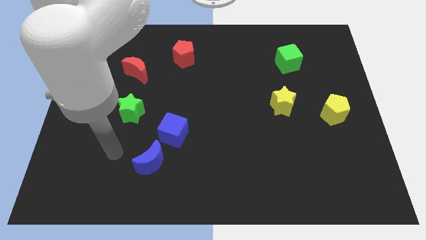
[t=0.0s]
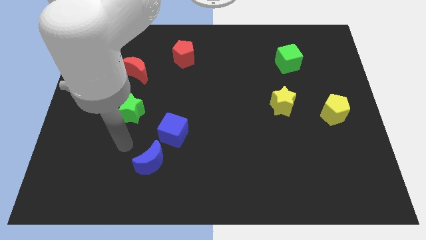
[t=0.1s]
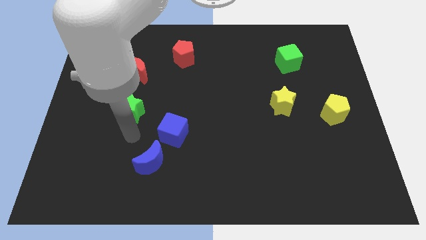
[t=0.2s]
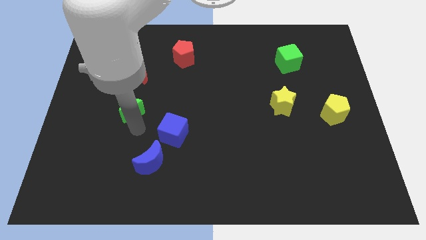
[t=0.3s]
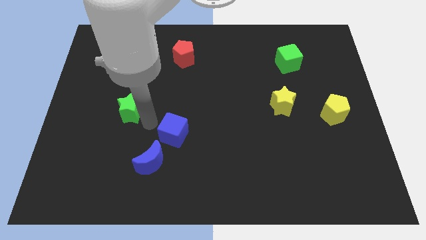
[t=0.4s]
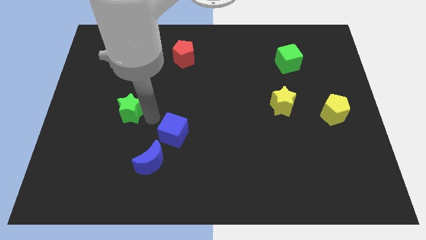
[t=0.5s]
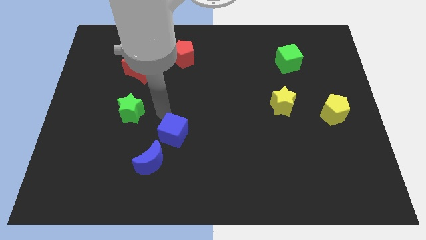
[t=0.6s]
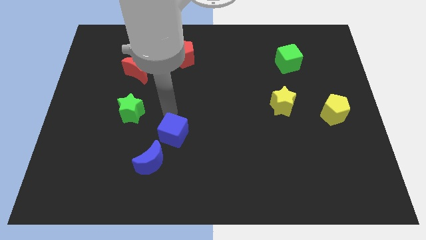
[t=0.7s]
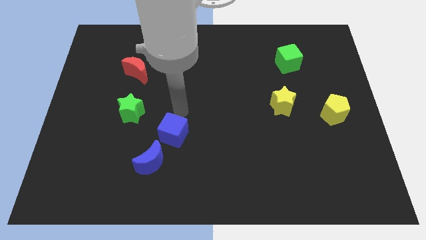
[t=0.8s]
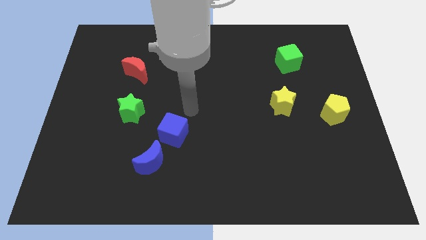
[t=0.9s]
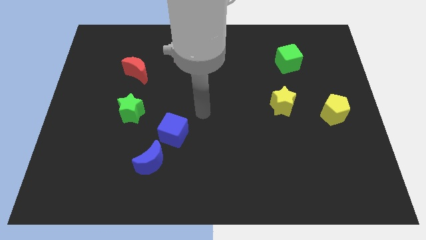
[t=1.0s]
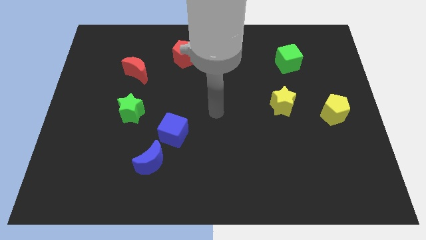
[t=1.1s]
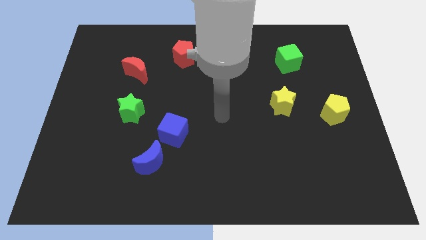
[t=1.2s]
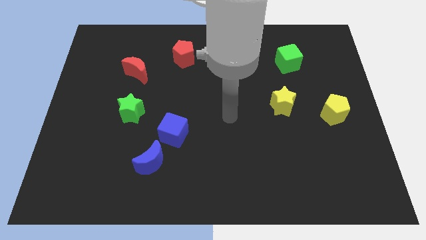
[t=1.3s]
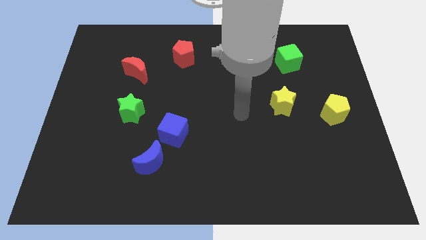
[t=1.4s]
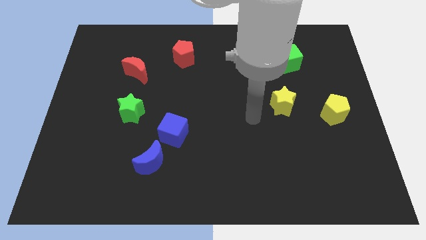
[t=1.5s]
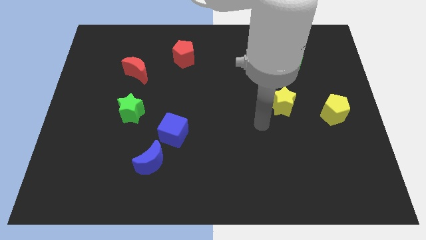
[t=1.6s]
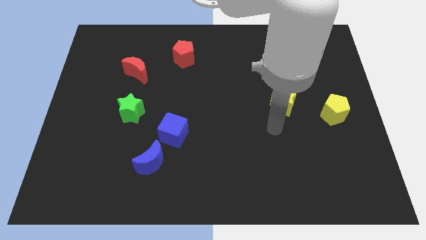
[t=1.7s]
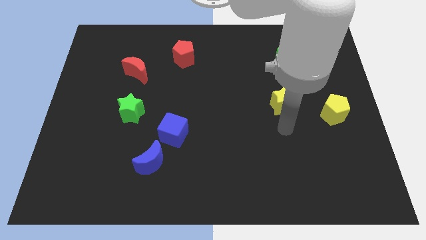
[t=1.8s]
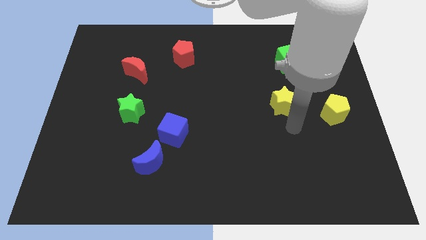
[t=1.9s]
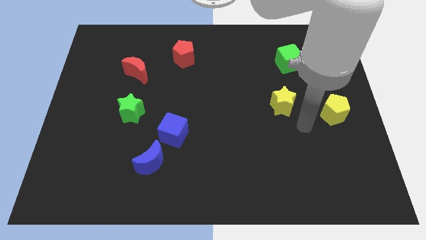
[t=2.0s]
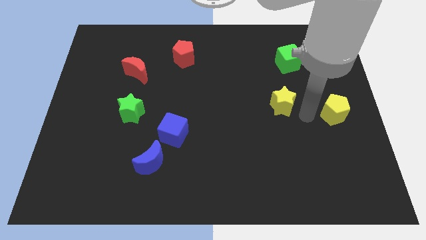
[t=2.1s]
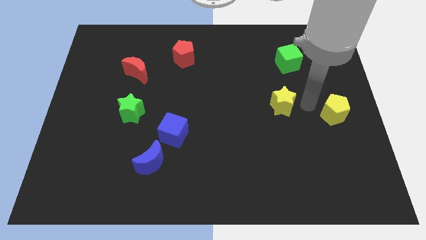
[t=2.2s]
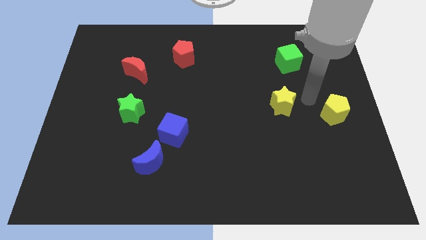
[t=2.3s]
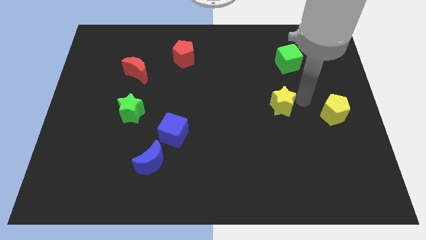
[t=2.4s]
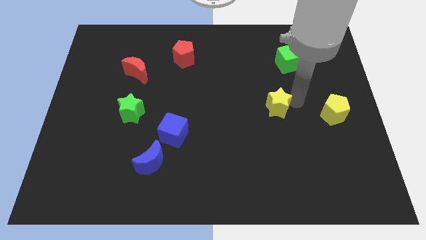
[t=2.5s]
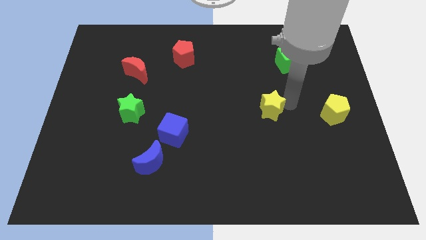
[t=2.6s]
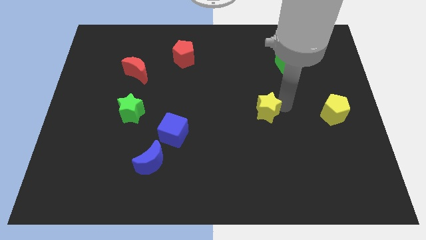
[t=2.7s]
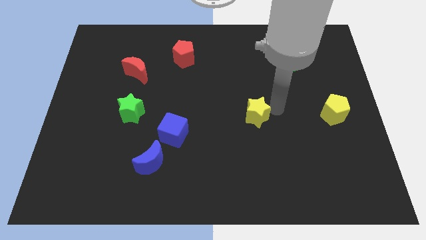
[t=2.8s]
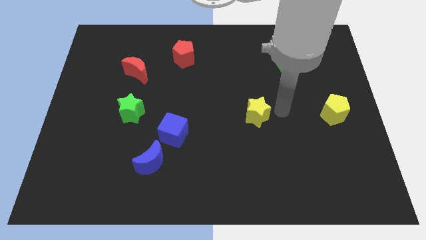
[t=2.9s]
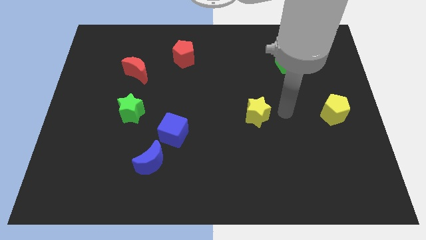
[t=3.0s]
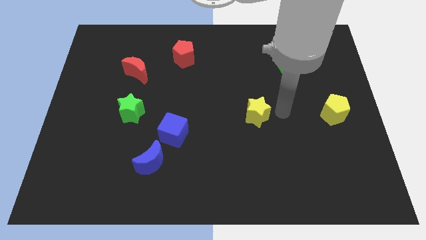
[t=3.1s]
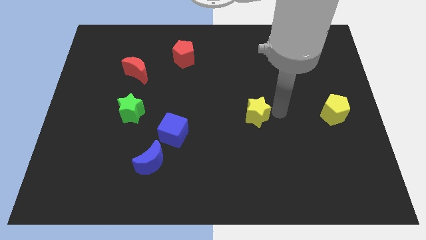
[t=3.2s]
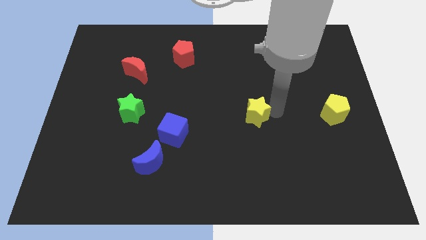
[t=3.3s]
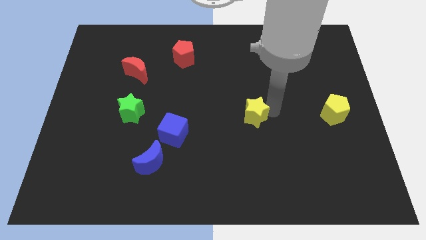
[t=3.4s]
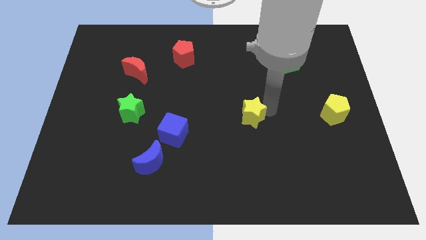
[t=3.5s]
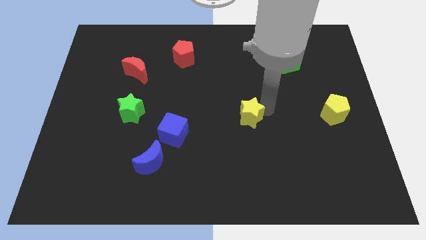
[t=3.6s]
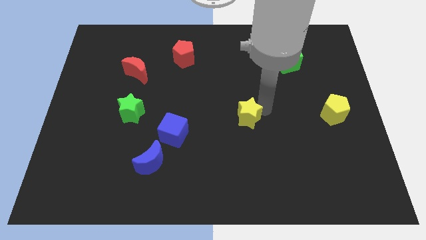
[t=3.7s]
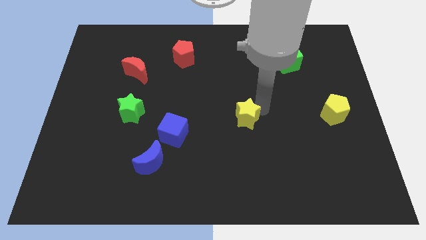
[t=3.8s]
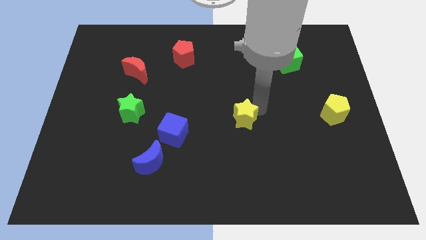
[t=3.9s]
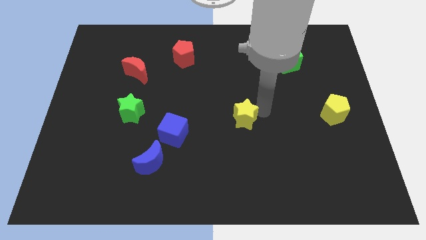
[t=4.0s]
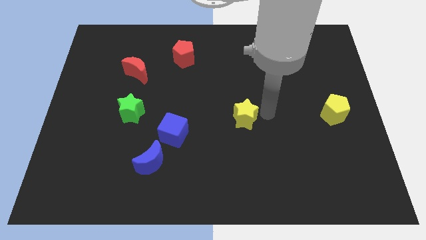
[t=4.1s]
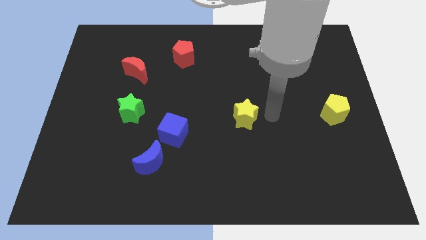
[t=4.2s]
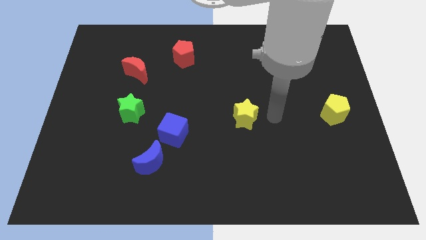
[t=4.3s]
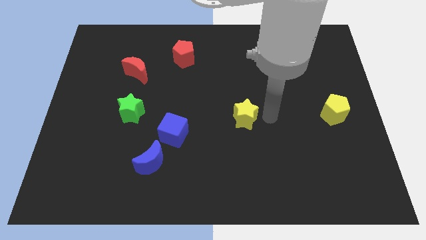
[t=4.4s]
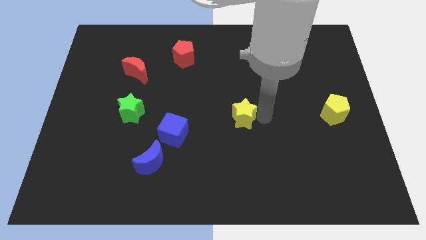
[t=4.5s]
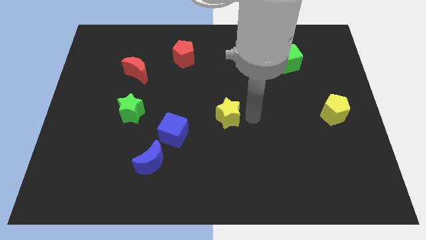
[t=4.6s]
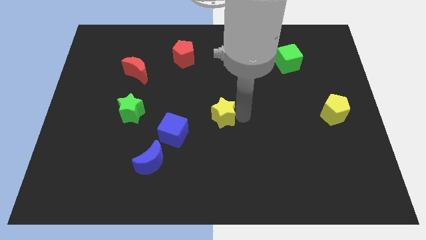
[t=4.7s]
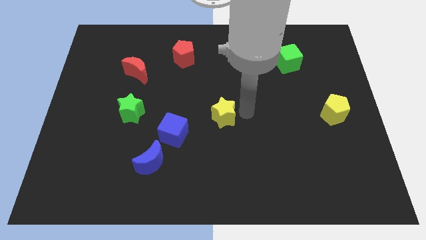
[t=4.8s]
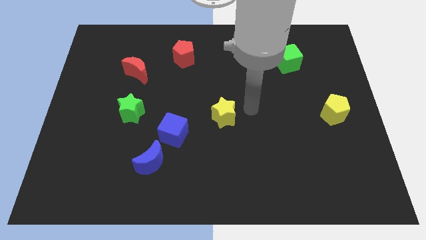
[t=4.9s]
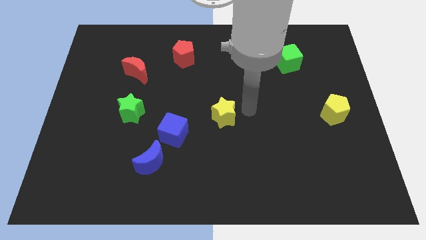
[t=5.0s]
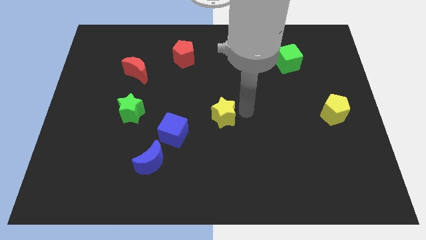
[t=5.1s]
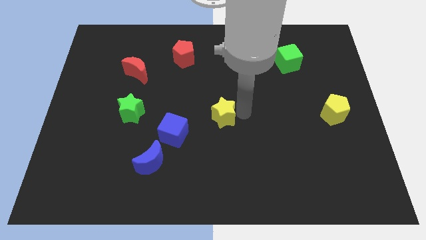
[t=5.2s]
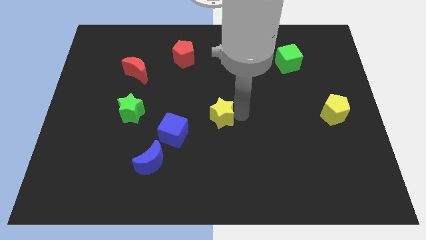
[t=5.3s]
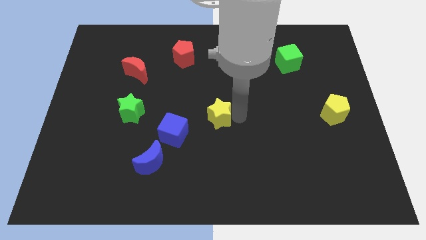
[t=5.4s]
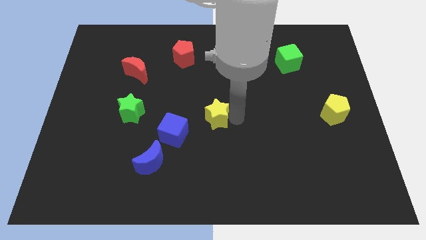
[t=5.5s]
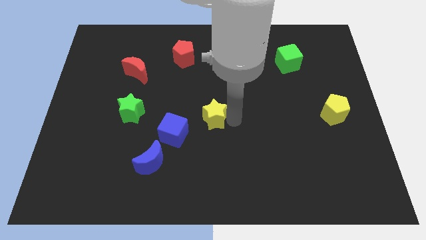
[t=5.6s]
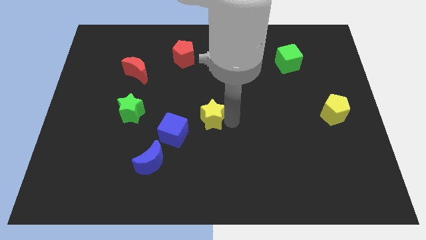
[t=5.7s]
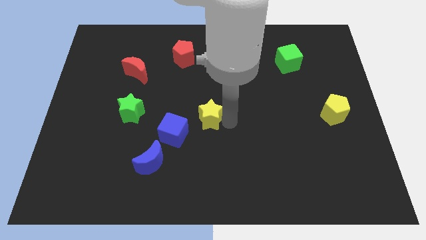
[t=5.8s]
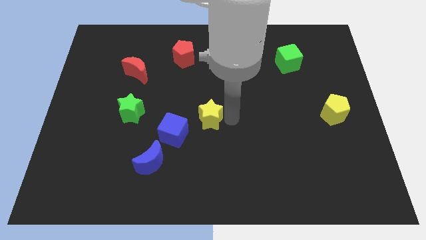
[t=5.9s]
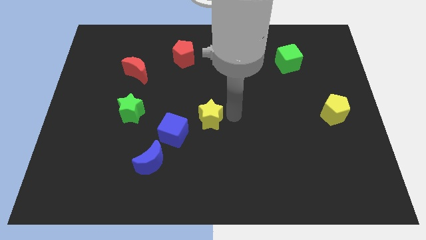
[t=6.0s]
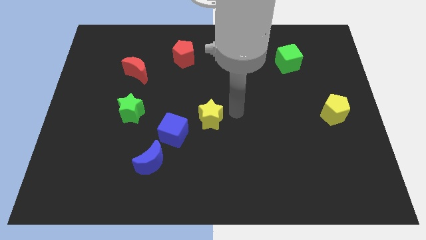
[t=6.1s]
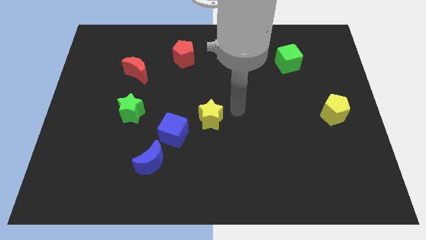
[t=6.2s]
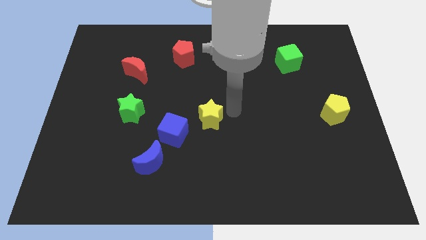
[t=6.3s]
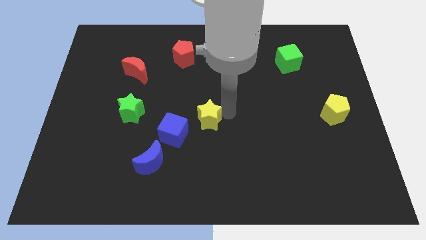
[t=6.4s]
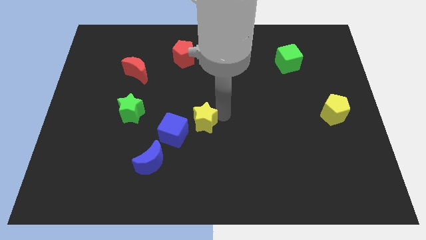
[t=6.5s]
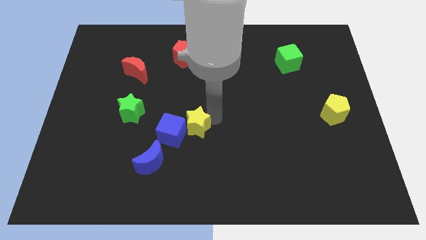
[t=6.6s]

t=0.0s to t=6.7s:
move the yellow star to the blue cube
